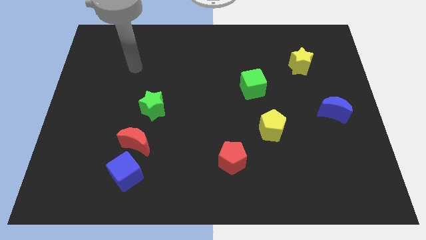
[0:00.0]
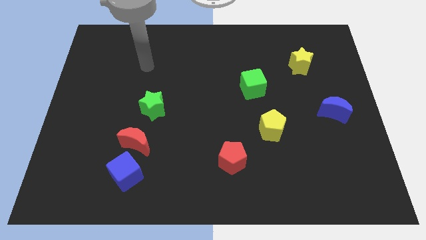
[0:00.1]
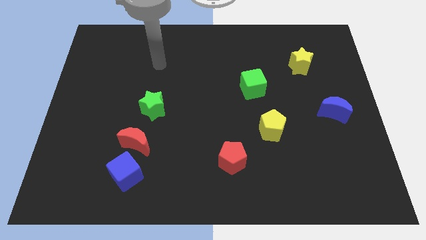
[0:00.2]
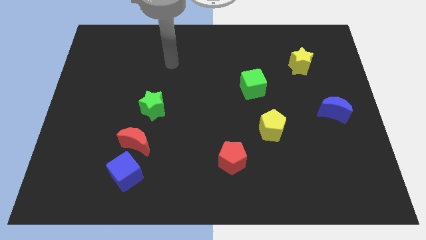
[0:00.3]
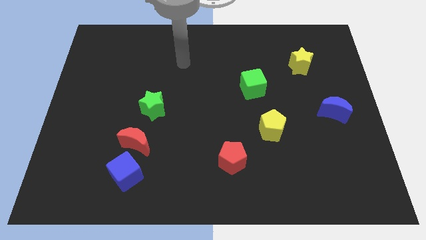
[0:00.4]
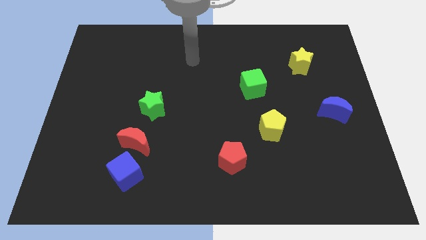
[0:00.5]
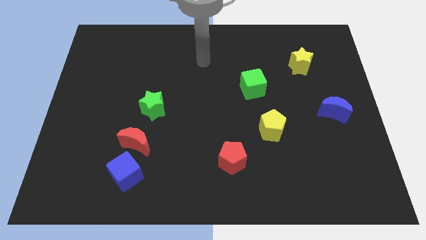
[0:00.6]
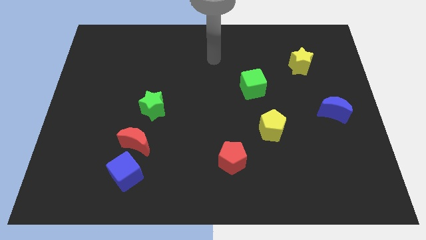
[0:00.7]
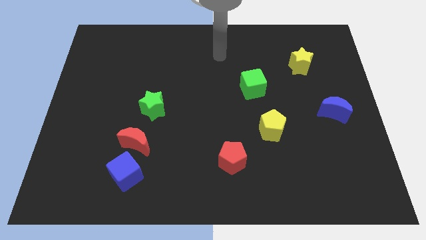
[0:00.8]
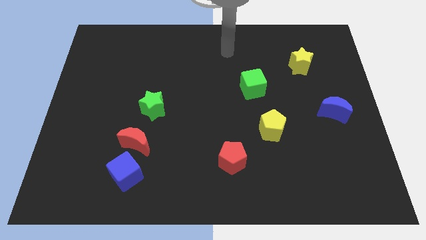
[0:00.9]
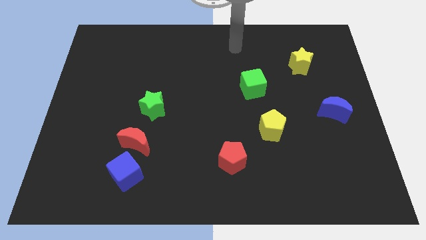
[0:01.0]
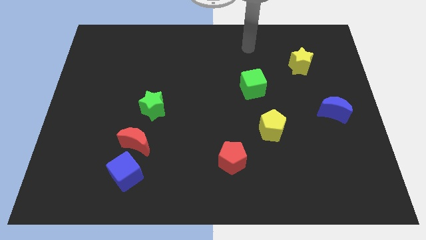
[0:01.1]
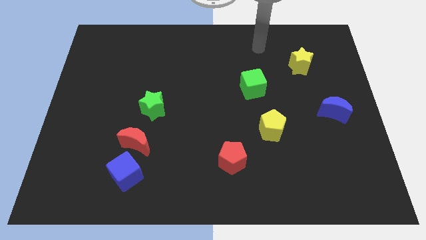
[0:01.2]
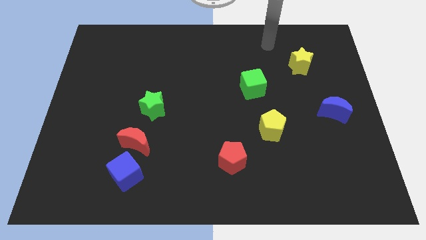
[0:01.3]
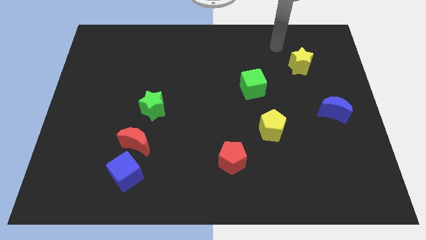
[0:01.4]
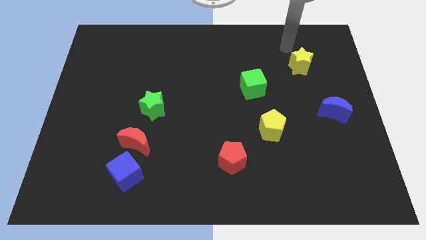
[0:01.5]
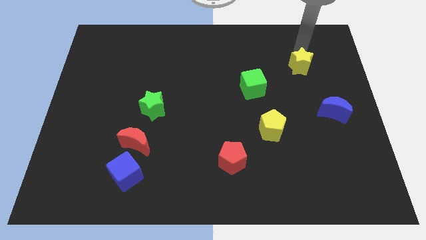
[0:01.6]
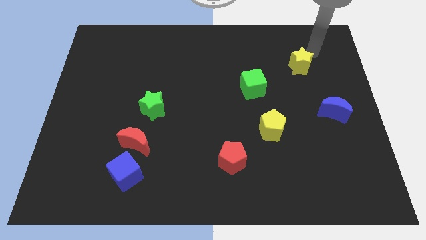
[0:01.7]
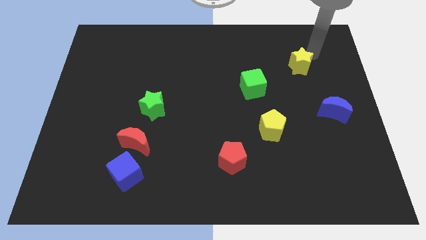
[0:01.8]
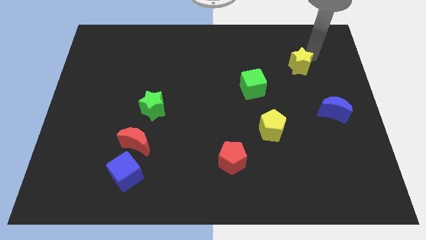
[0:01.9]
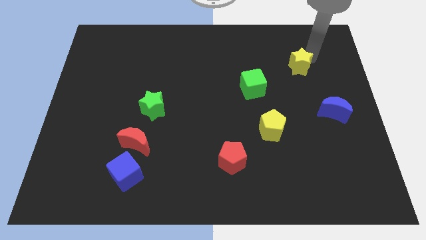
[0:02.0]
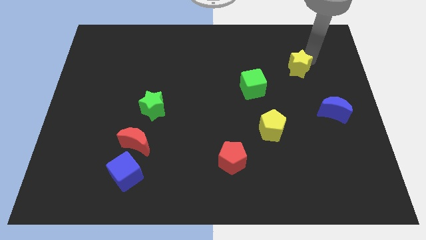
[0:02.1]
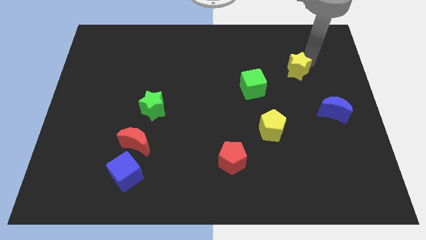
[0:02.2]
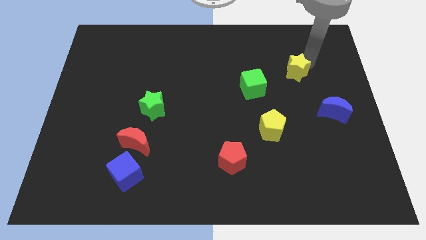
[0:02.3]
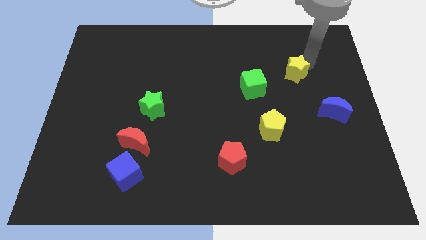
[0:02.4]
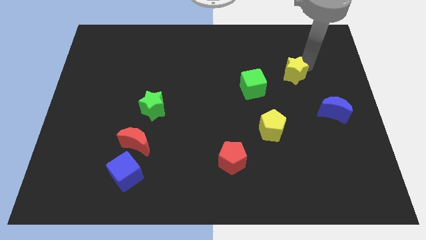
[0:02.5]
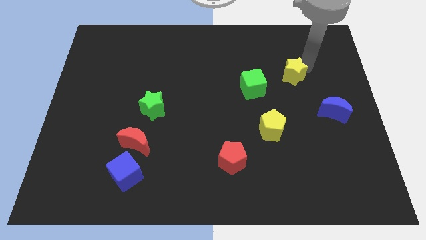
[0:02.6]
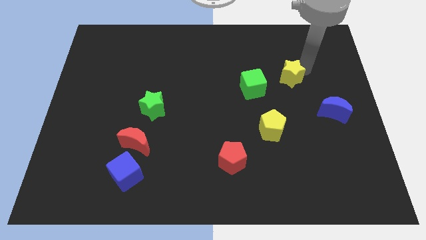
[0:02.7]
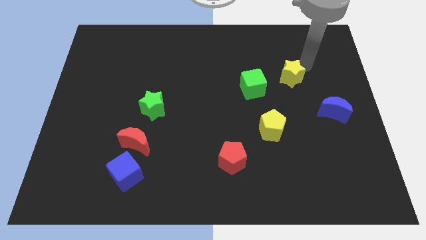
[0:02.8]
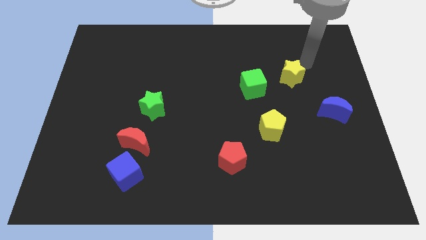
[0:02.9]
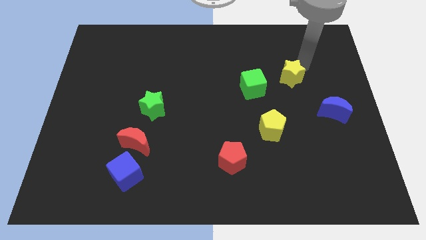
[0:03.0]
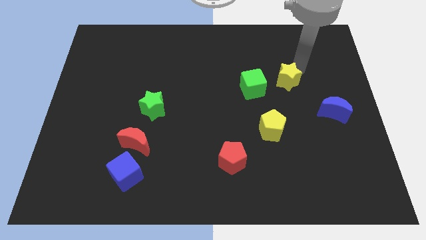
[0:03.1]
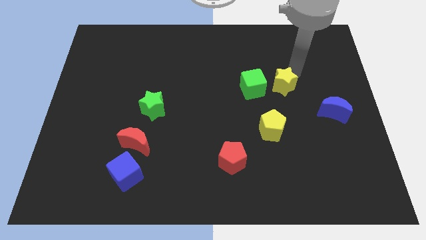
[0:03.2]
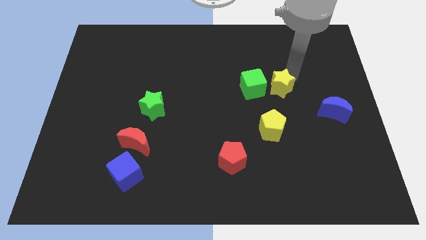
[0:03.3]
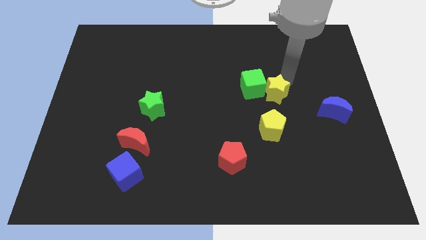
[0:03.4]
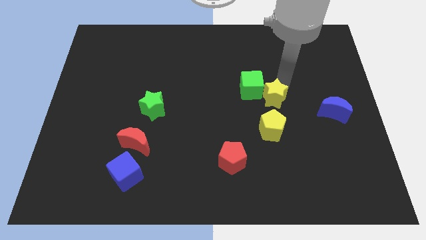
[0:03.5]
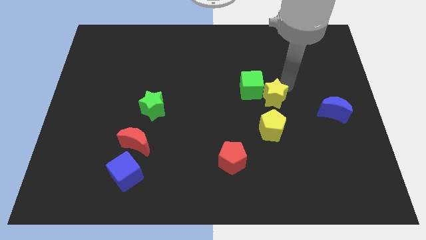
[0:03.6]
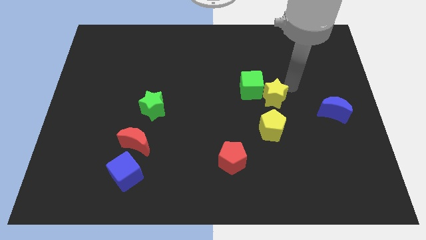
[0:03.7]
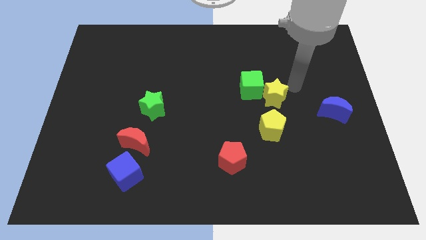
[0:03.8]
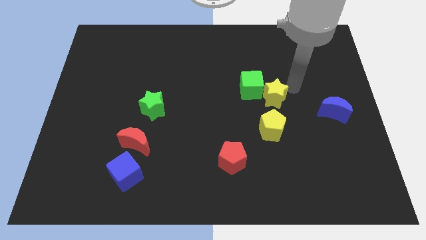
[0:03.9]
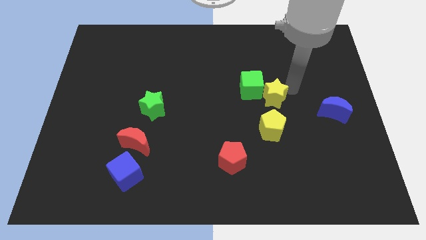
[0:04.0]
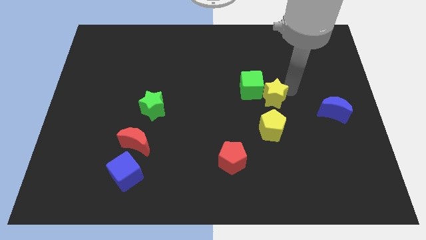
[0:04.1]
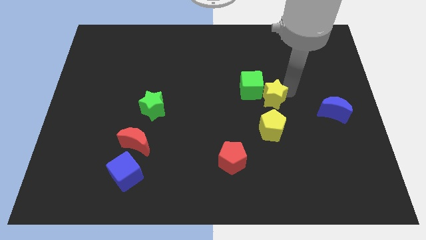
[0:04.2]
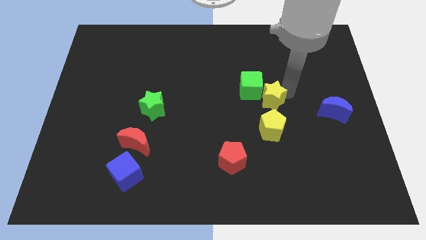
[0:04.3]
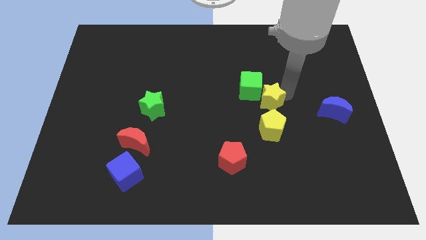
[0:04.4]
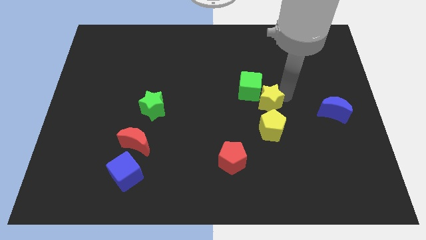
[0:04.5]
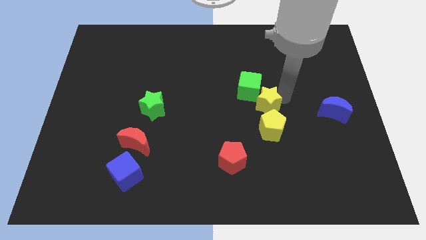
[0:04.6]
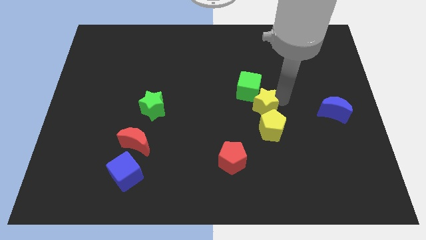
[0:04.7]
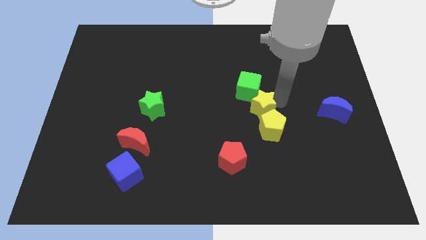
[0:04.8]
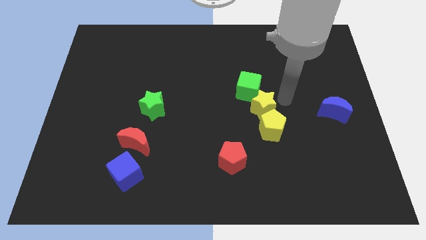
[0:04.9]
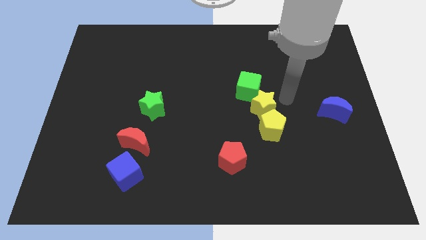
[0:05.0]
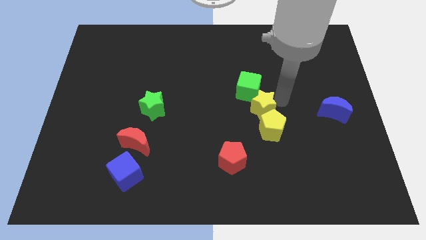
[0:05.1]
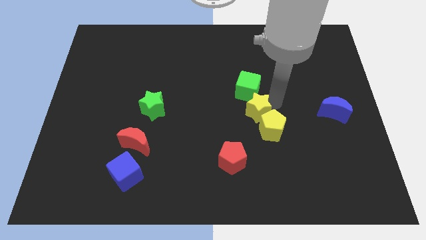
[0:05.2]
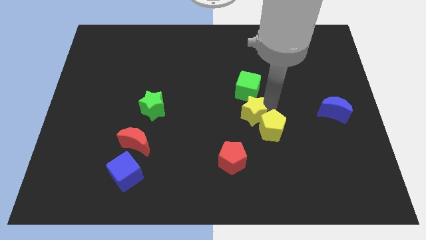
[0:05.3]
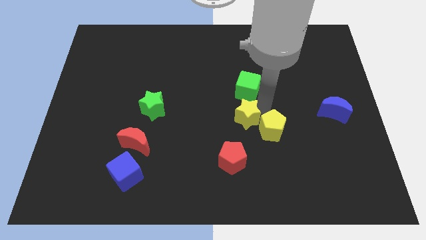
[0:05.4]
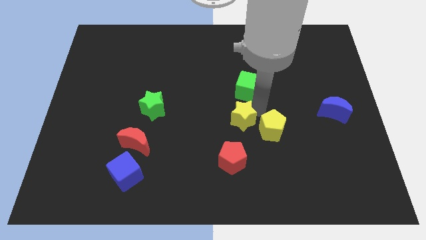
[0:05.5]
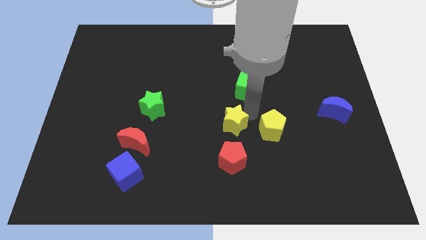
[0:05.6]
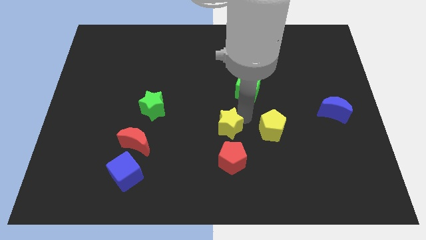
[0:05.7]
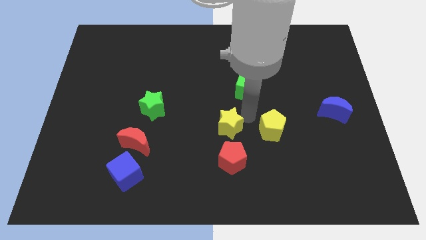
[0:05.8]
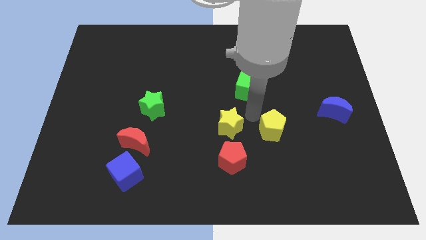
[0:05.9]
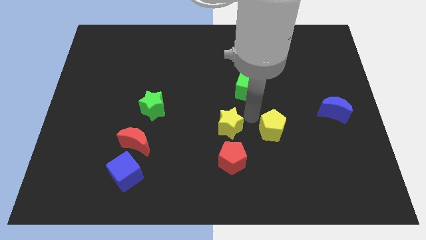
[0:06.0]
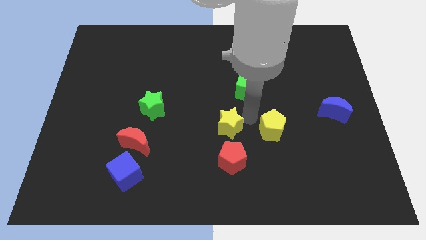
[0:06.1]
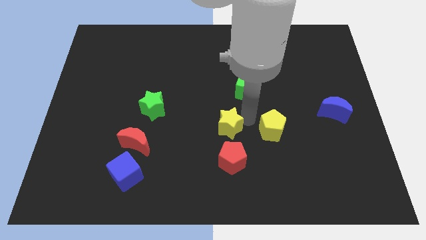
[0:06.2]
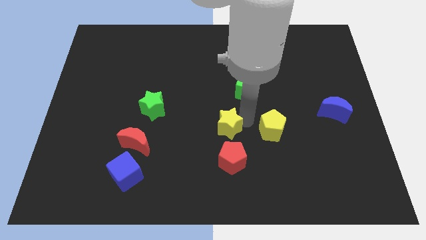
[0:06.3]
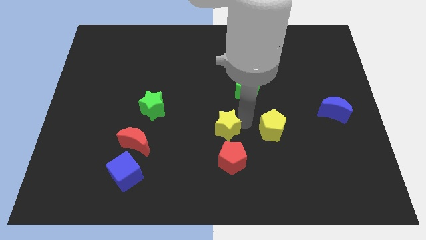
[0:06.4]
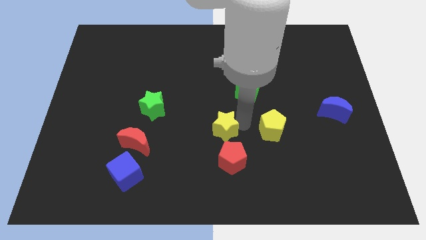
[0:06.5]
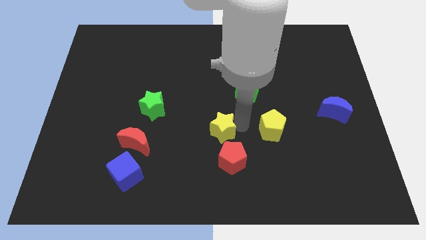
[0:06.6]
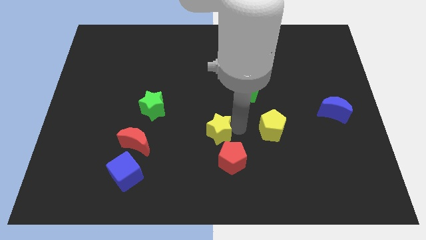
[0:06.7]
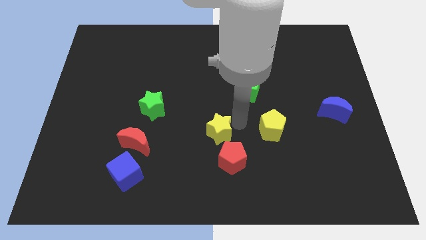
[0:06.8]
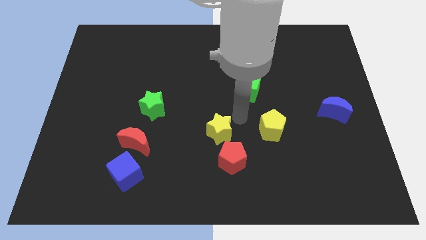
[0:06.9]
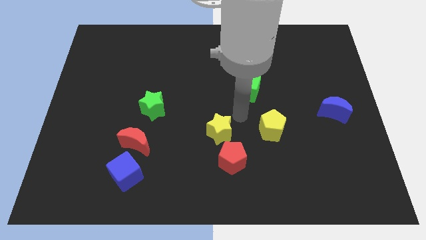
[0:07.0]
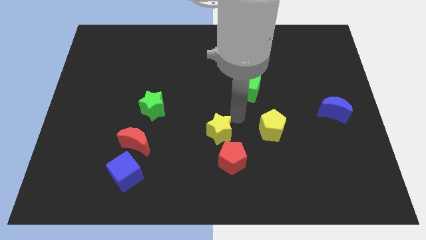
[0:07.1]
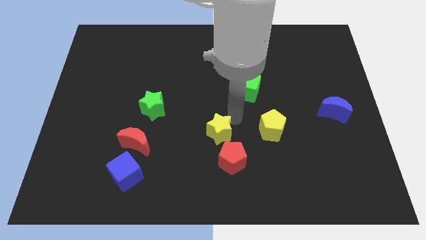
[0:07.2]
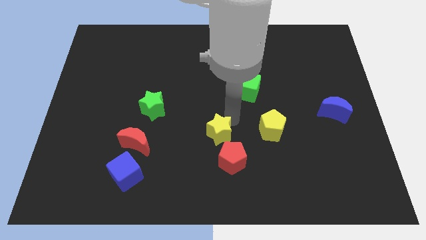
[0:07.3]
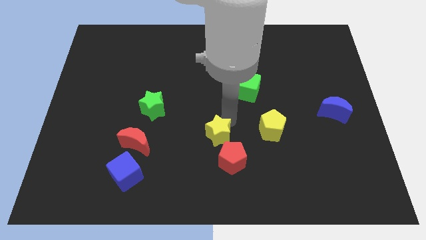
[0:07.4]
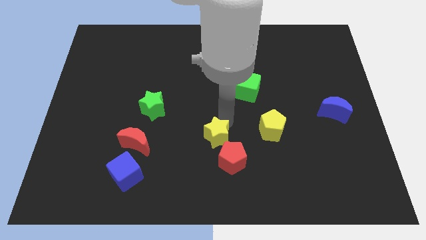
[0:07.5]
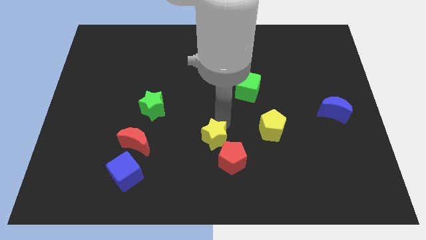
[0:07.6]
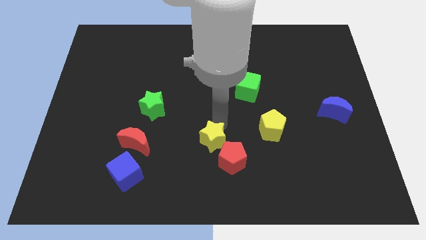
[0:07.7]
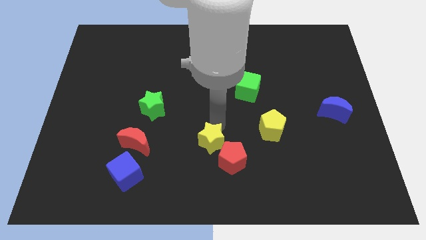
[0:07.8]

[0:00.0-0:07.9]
push the yellow star to the left side of the red pentagon
